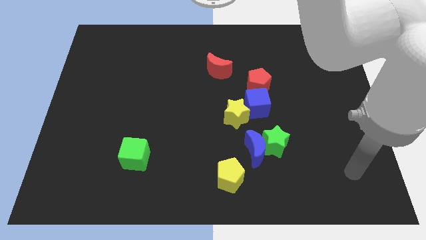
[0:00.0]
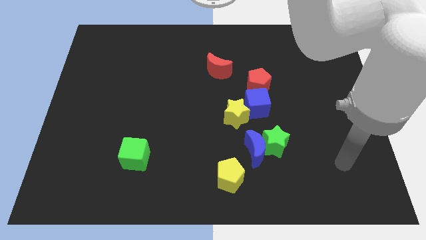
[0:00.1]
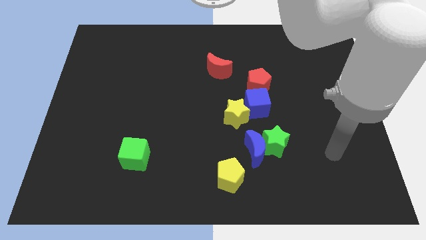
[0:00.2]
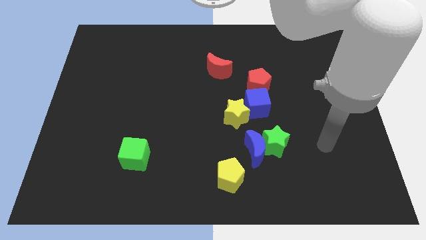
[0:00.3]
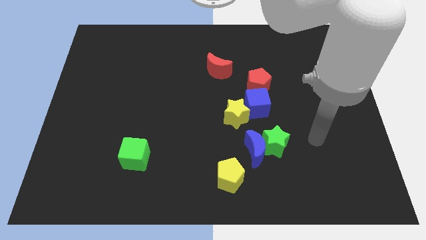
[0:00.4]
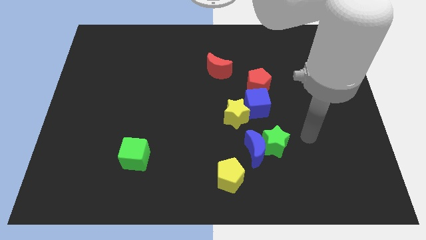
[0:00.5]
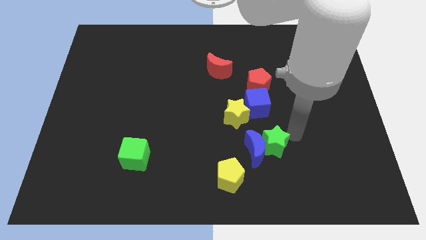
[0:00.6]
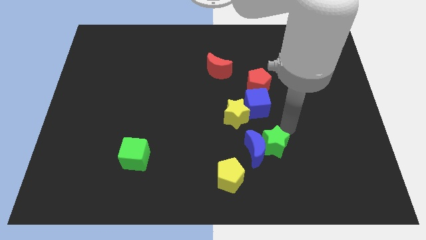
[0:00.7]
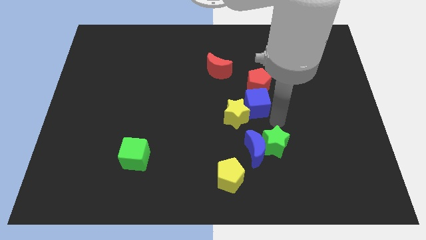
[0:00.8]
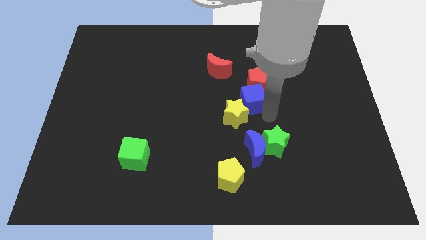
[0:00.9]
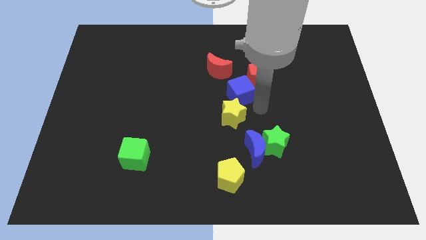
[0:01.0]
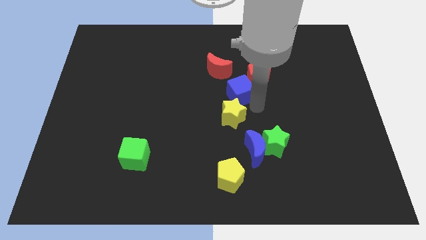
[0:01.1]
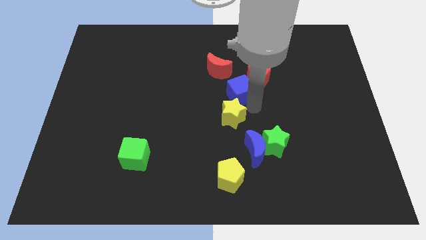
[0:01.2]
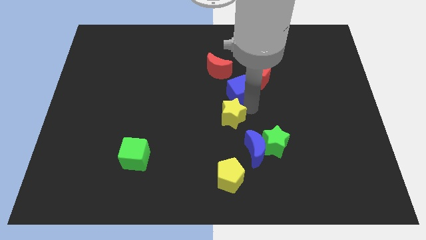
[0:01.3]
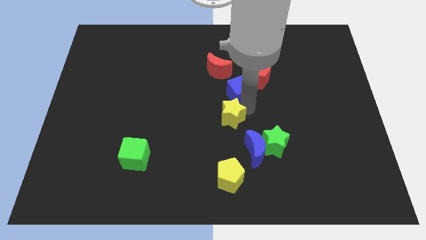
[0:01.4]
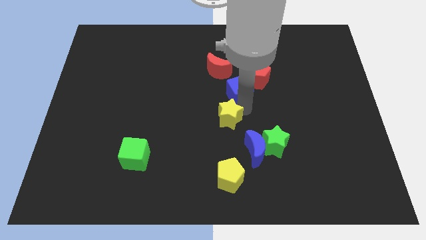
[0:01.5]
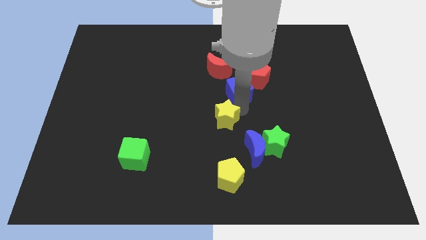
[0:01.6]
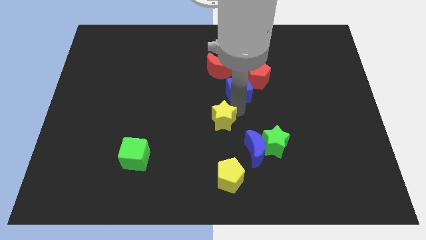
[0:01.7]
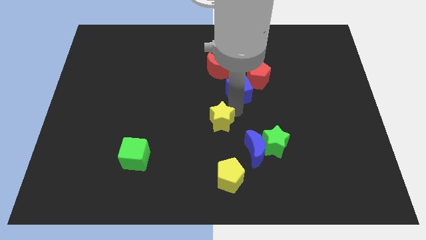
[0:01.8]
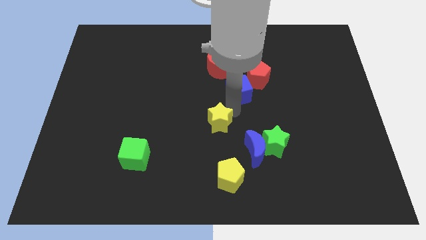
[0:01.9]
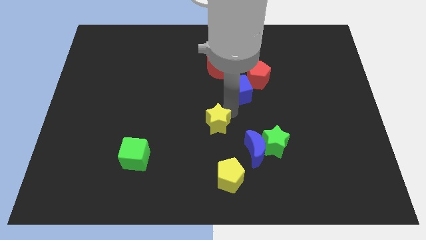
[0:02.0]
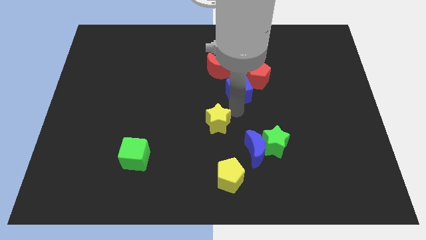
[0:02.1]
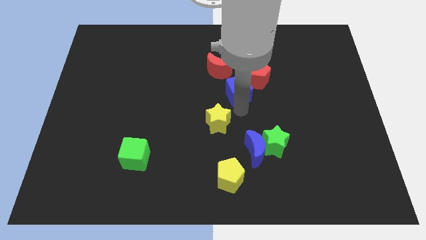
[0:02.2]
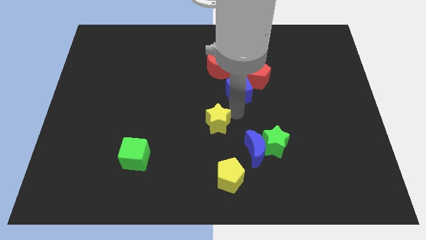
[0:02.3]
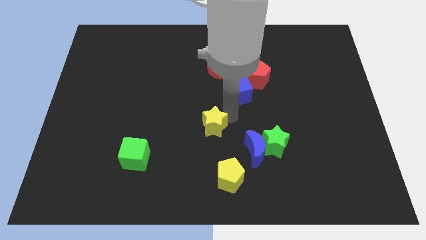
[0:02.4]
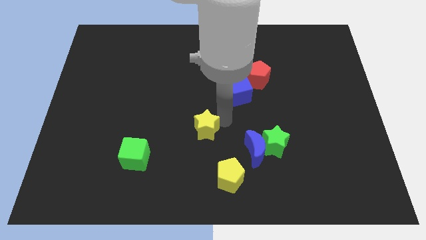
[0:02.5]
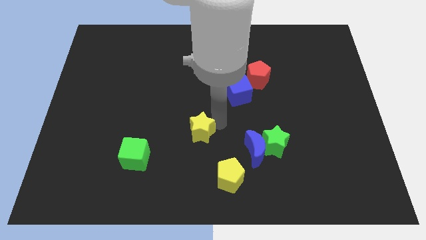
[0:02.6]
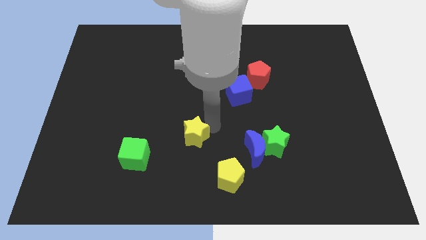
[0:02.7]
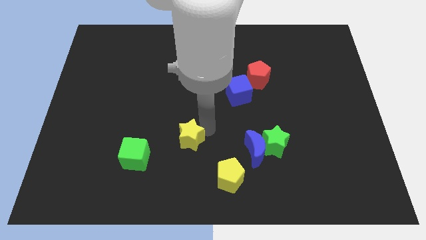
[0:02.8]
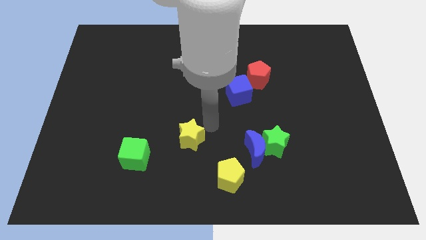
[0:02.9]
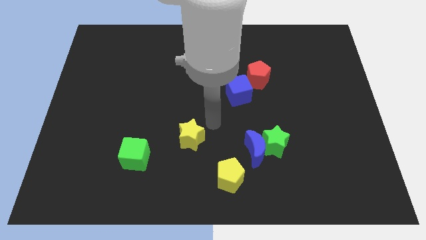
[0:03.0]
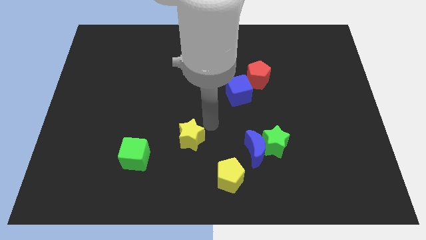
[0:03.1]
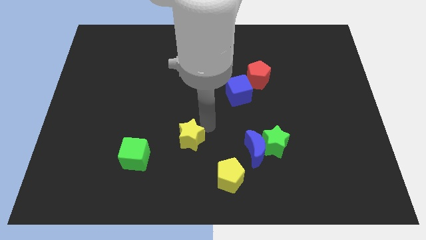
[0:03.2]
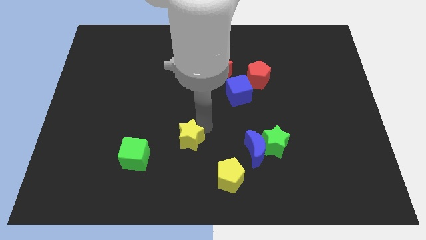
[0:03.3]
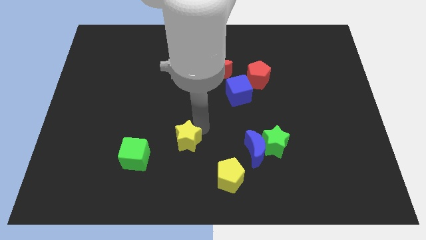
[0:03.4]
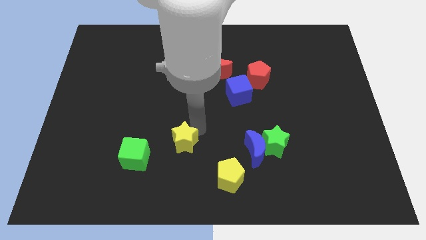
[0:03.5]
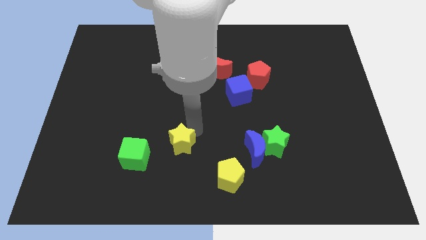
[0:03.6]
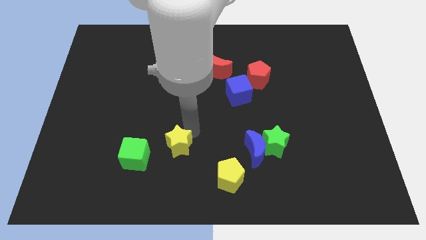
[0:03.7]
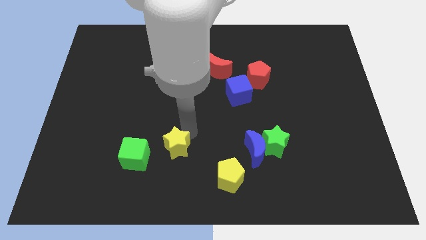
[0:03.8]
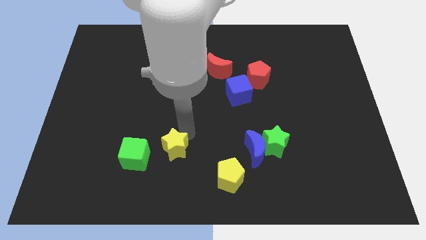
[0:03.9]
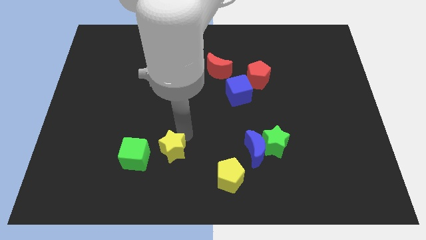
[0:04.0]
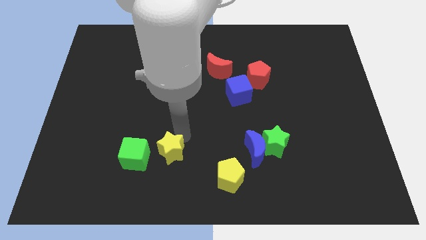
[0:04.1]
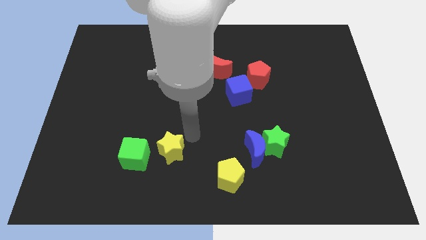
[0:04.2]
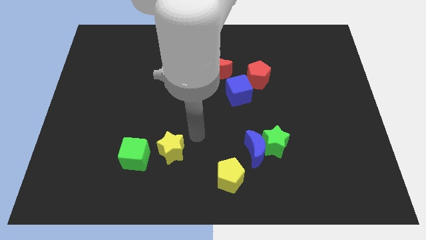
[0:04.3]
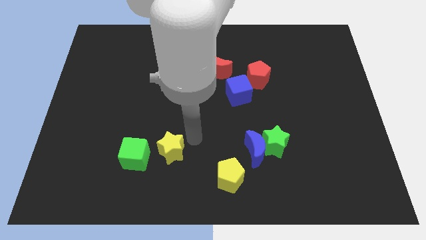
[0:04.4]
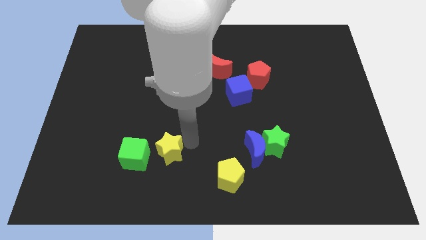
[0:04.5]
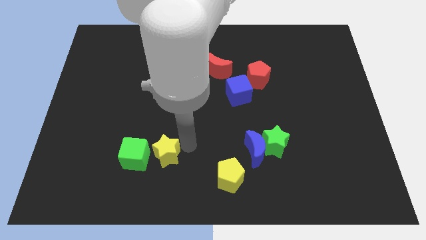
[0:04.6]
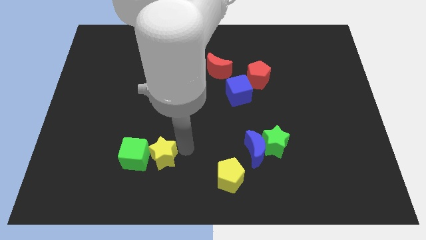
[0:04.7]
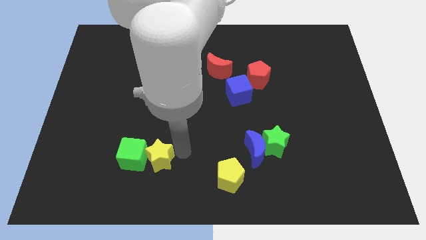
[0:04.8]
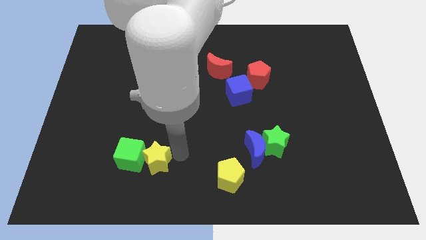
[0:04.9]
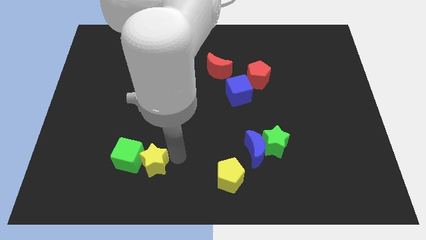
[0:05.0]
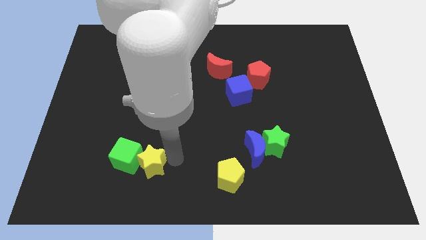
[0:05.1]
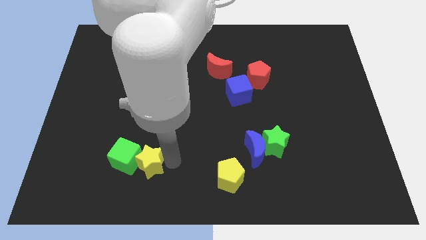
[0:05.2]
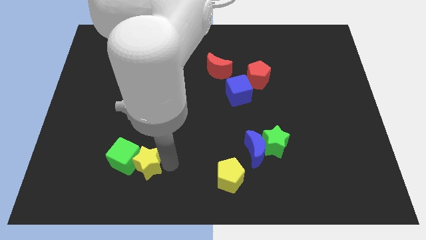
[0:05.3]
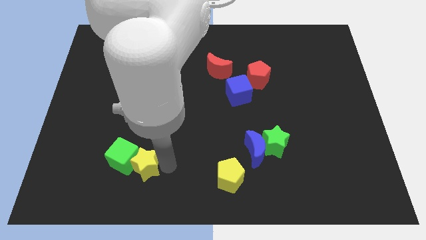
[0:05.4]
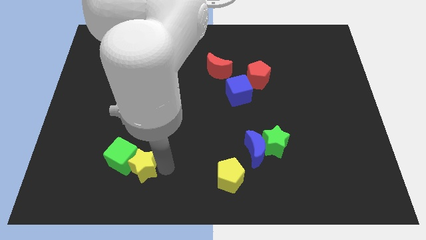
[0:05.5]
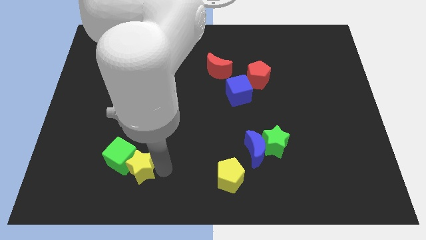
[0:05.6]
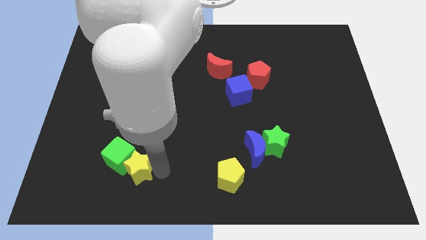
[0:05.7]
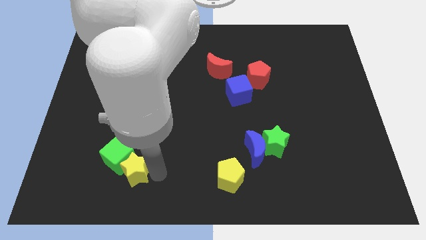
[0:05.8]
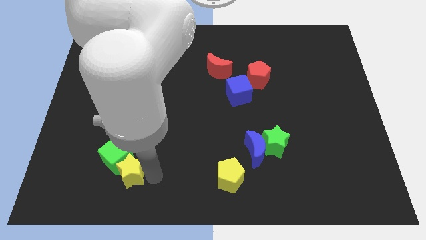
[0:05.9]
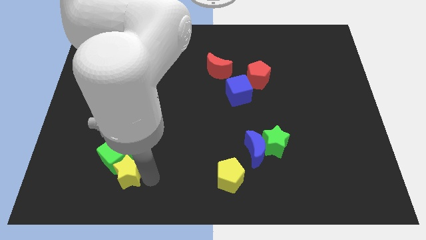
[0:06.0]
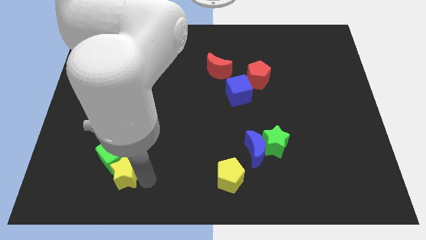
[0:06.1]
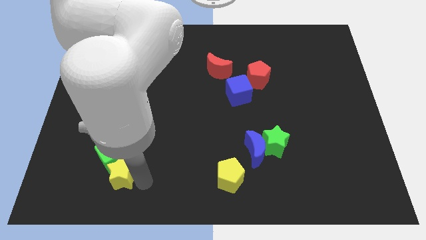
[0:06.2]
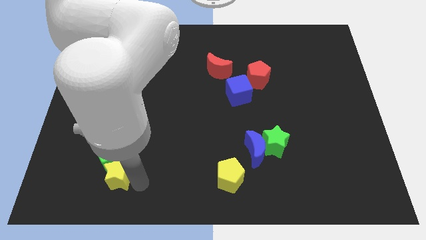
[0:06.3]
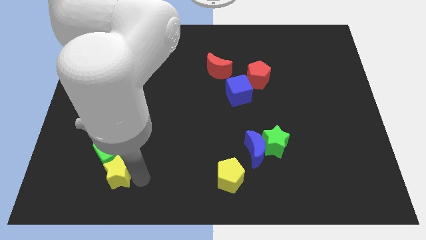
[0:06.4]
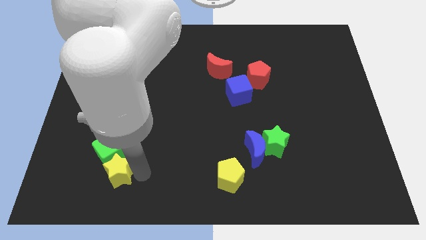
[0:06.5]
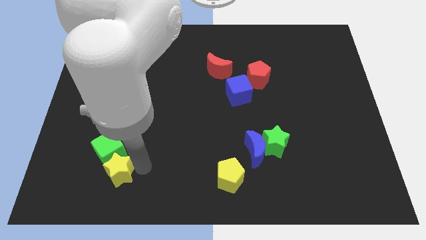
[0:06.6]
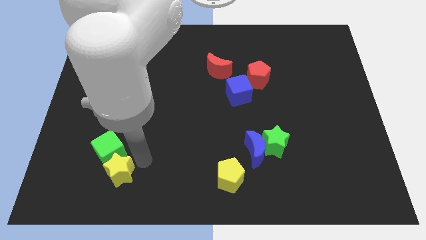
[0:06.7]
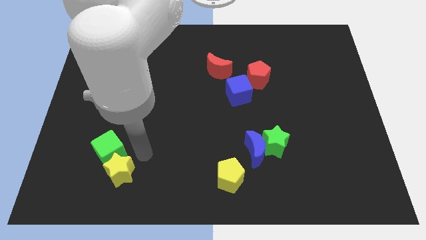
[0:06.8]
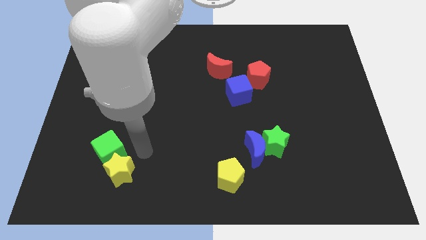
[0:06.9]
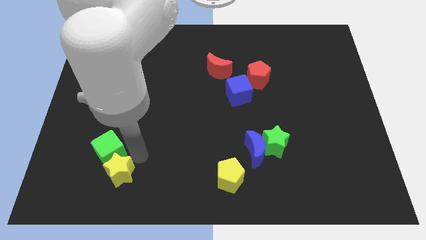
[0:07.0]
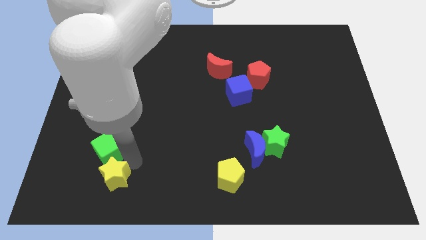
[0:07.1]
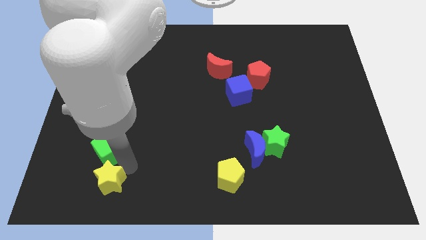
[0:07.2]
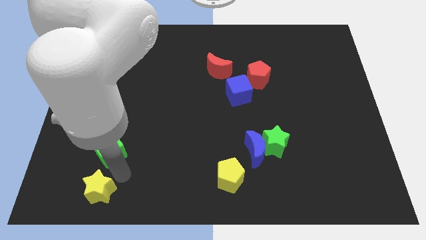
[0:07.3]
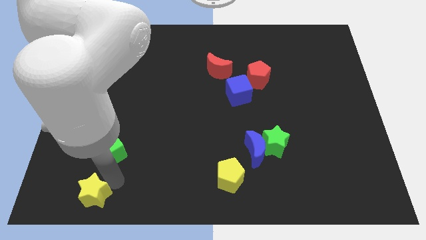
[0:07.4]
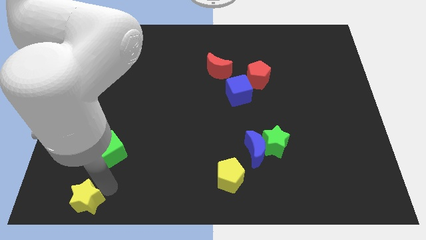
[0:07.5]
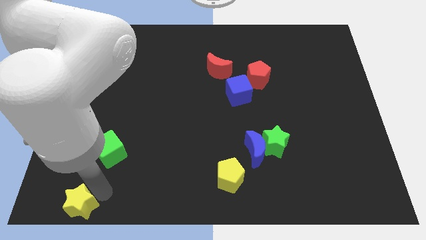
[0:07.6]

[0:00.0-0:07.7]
slide the yellow star to the lower left corner
